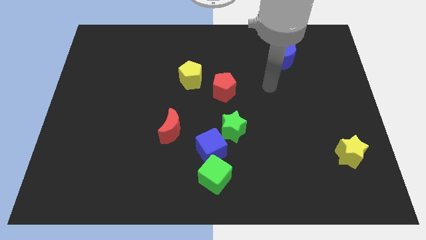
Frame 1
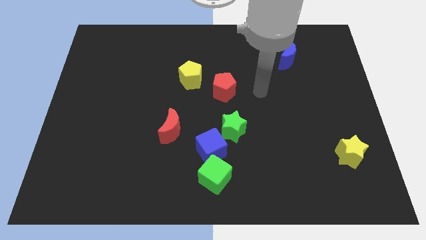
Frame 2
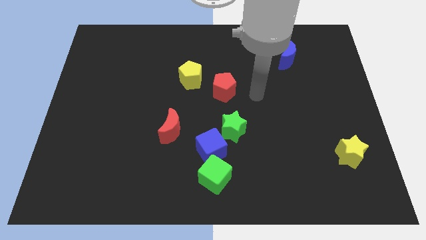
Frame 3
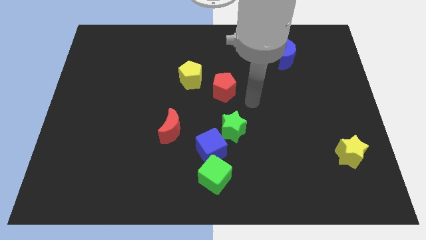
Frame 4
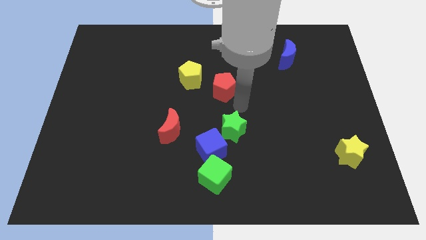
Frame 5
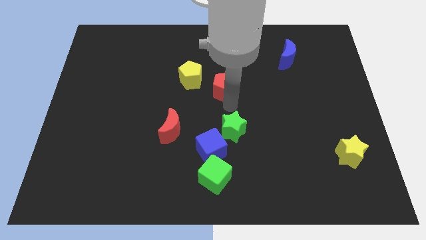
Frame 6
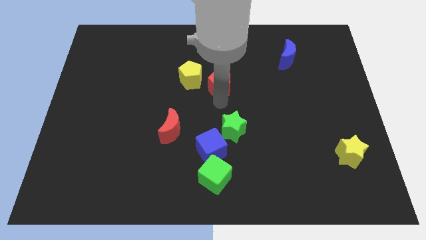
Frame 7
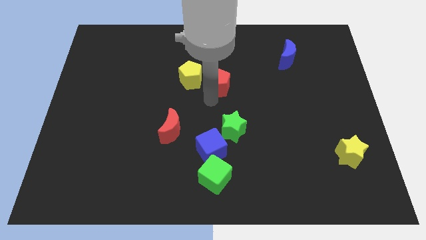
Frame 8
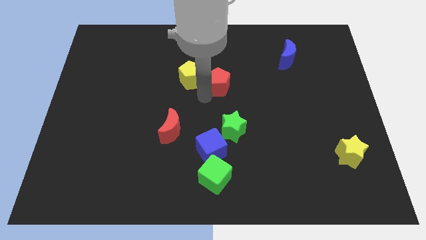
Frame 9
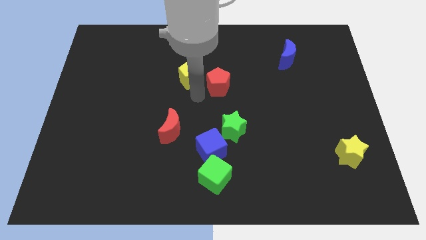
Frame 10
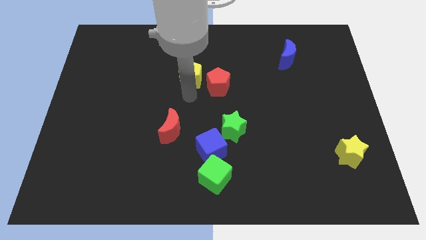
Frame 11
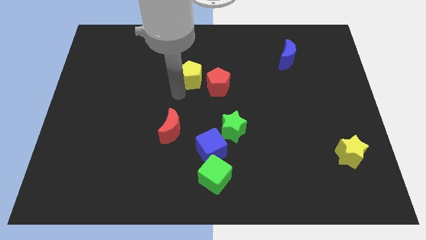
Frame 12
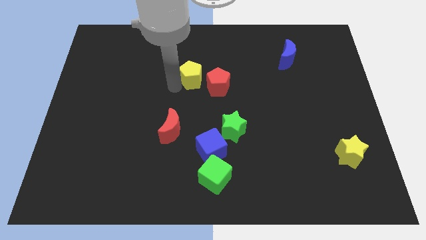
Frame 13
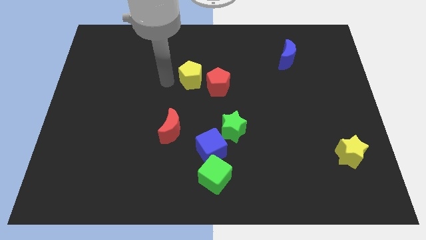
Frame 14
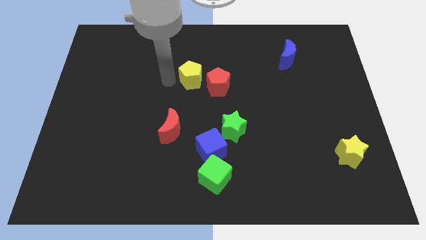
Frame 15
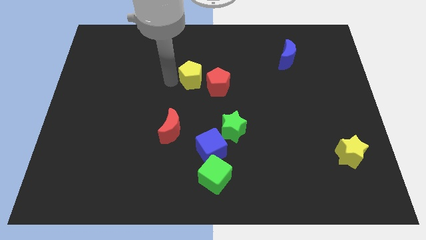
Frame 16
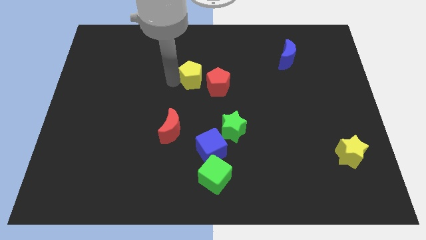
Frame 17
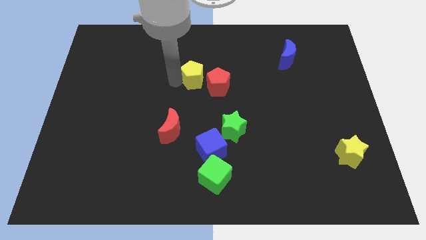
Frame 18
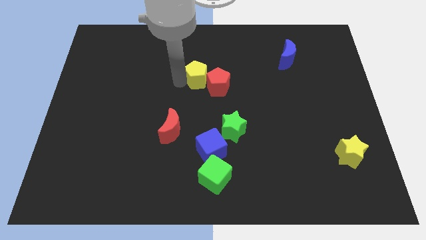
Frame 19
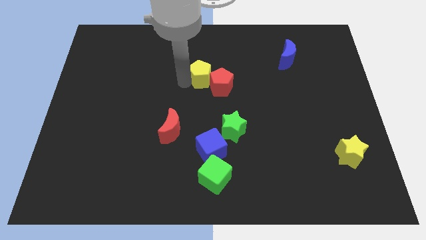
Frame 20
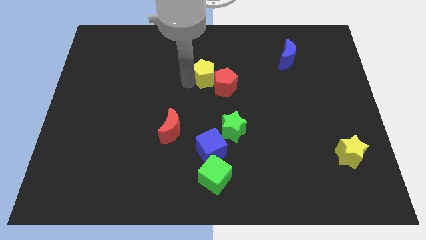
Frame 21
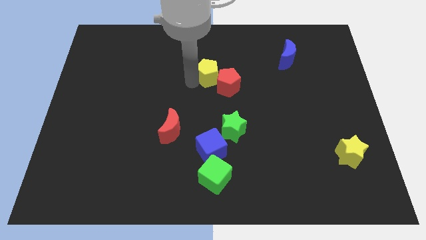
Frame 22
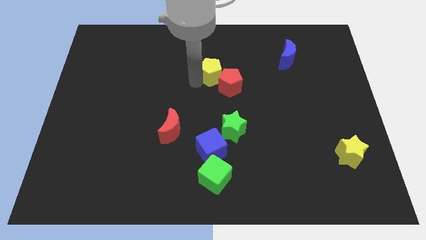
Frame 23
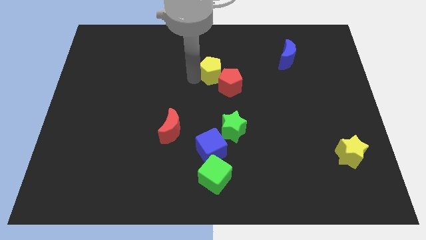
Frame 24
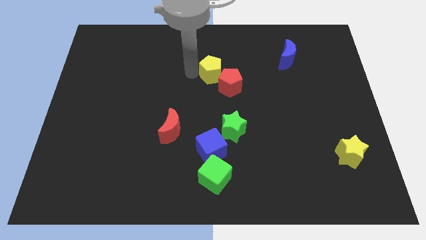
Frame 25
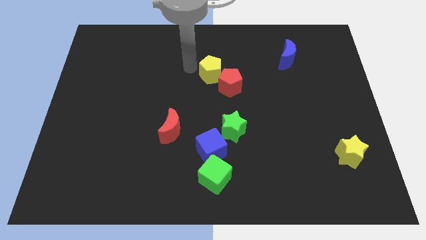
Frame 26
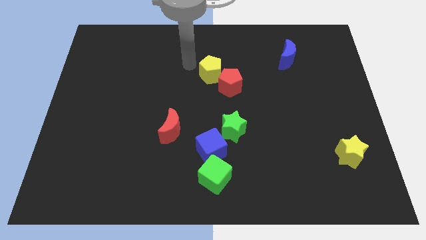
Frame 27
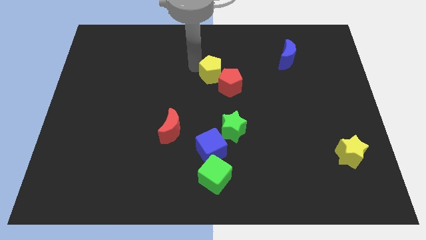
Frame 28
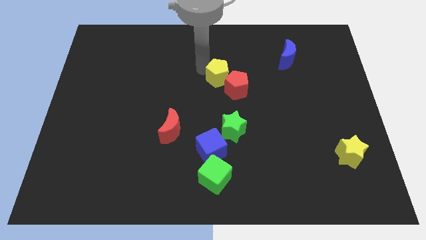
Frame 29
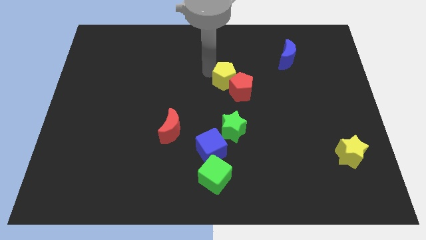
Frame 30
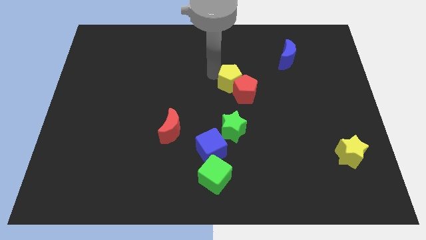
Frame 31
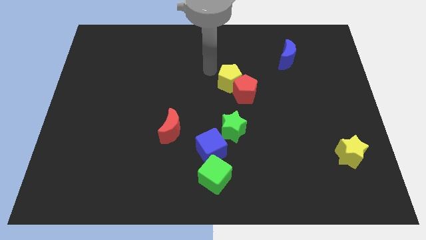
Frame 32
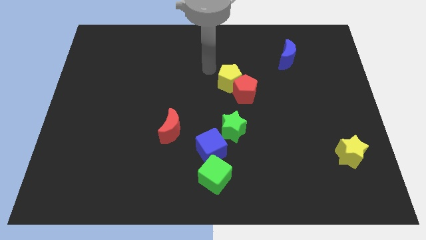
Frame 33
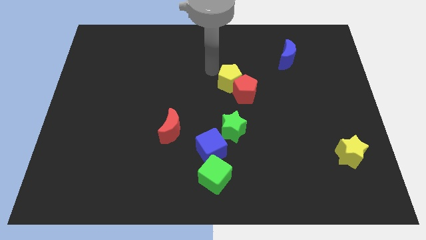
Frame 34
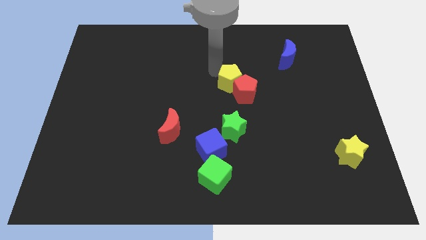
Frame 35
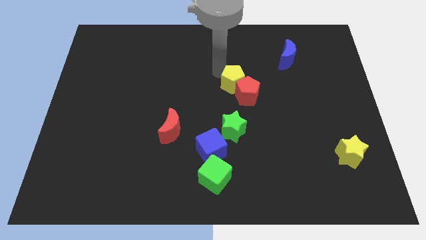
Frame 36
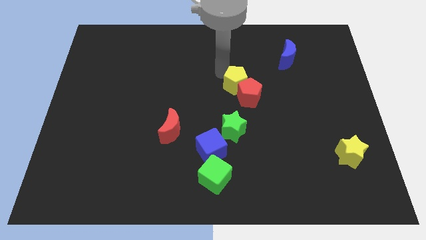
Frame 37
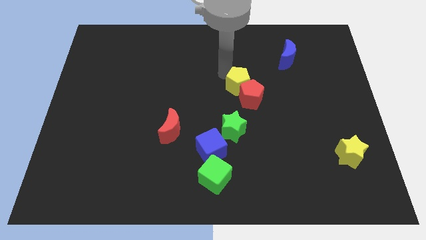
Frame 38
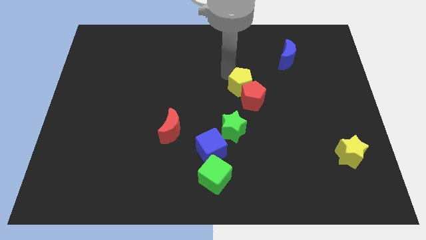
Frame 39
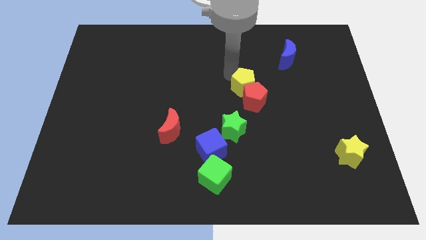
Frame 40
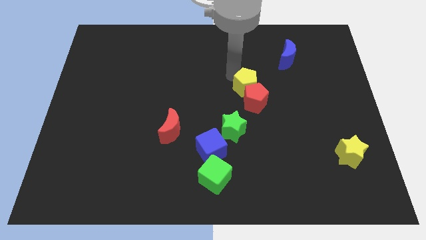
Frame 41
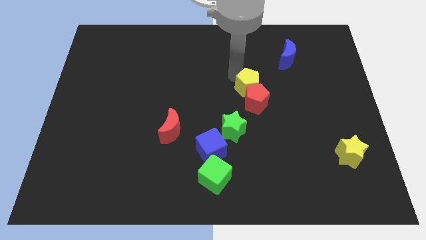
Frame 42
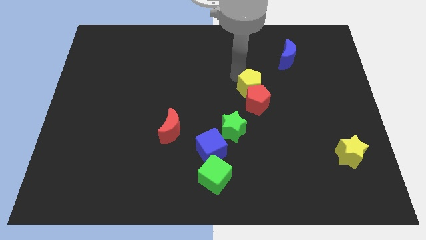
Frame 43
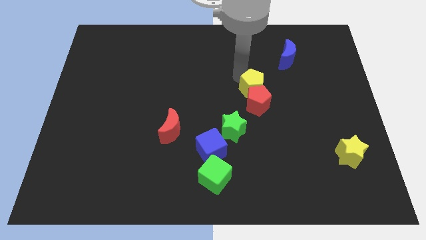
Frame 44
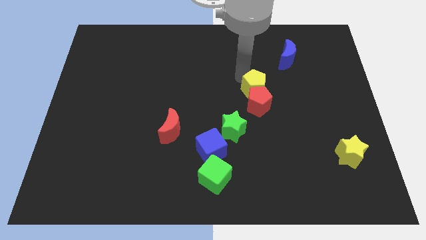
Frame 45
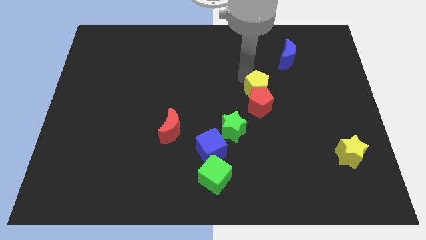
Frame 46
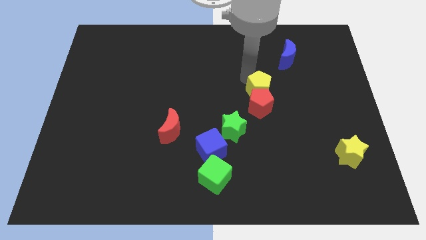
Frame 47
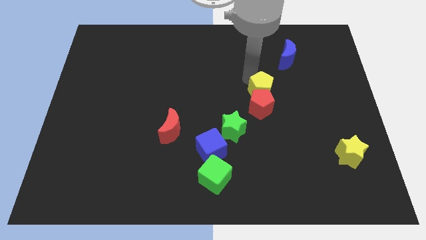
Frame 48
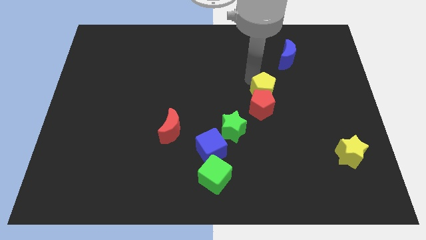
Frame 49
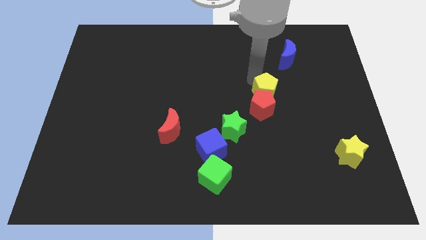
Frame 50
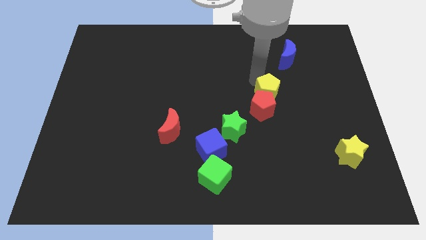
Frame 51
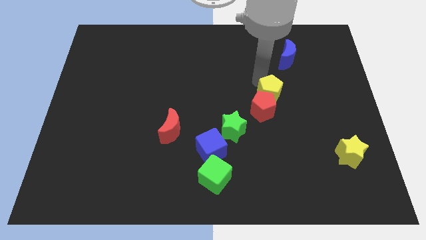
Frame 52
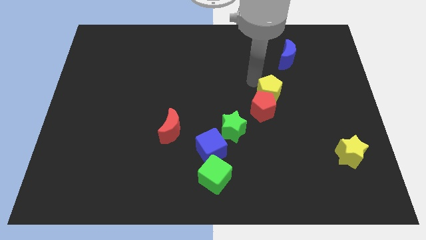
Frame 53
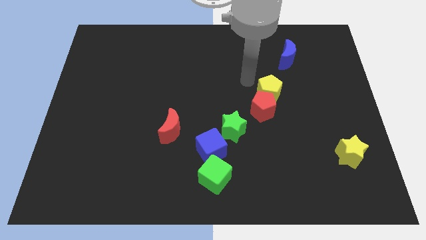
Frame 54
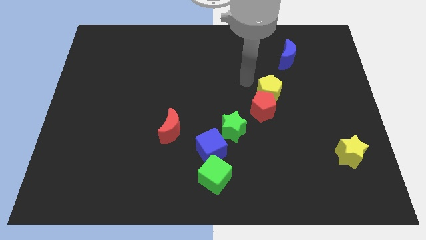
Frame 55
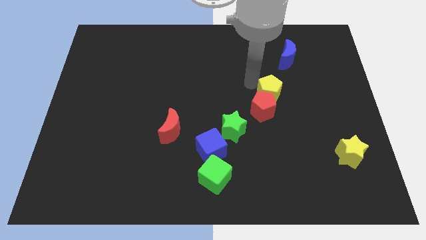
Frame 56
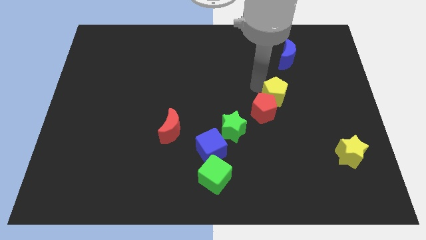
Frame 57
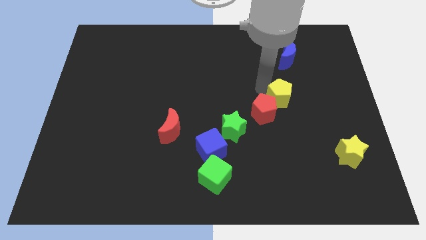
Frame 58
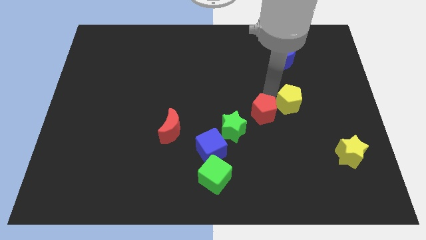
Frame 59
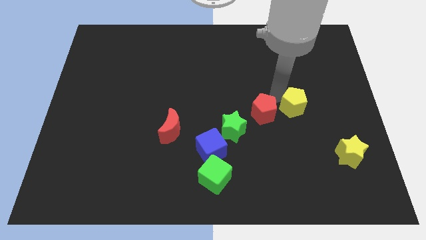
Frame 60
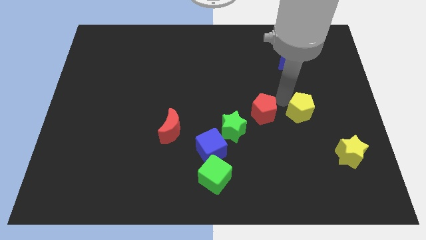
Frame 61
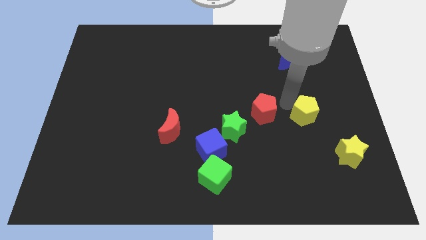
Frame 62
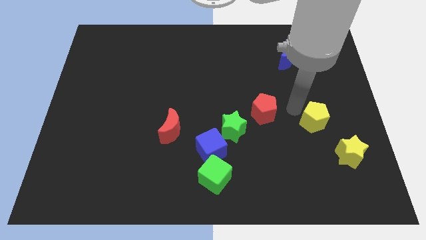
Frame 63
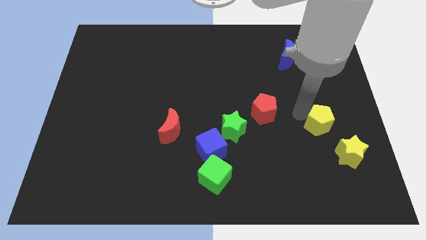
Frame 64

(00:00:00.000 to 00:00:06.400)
slide the yellow pentagon to the top side of the yellow star
